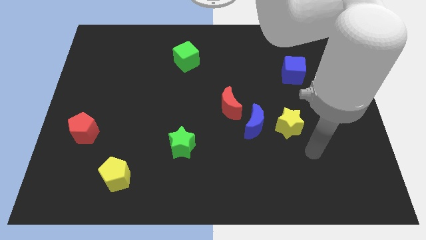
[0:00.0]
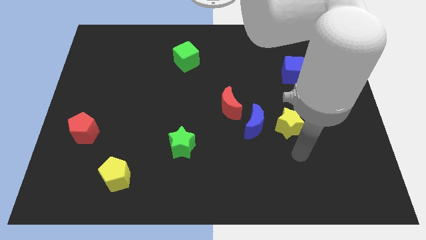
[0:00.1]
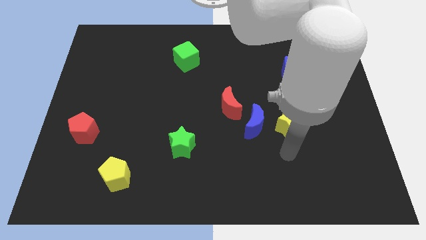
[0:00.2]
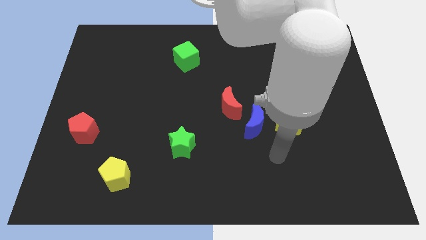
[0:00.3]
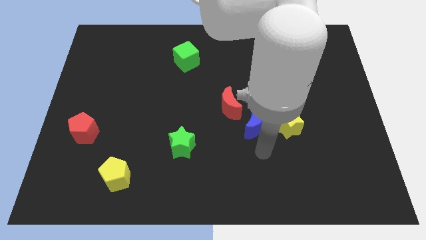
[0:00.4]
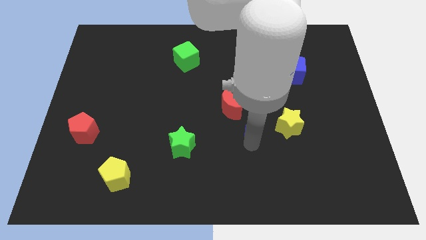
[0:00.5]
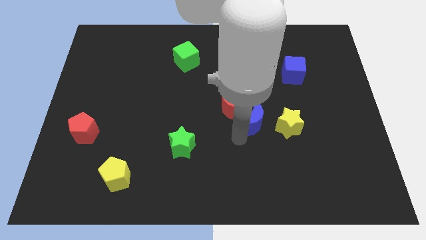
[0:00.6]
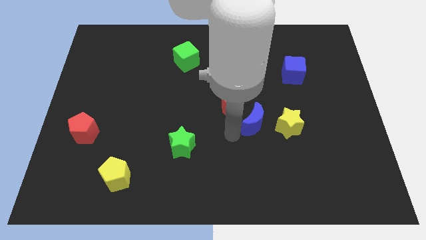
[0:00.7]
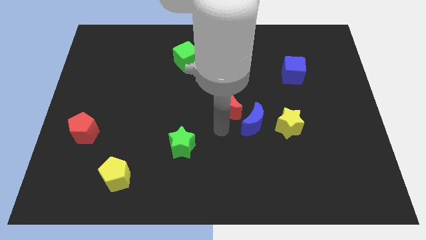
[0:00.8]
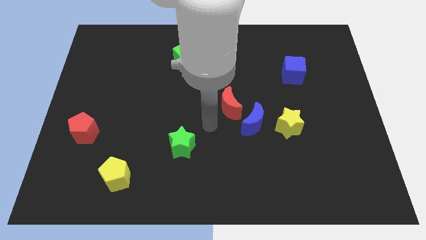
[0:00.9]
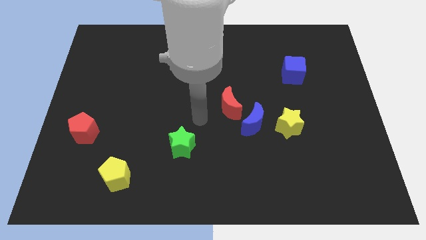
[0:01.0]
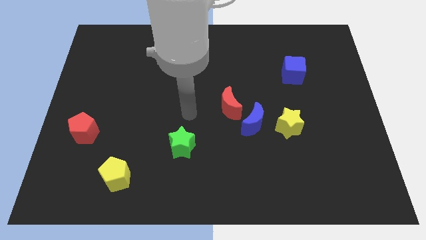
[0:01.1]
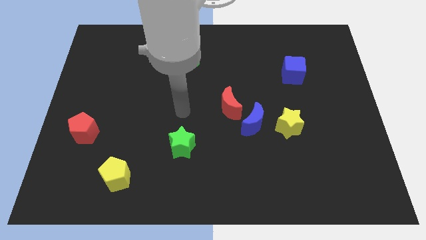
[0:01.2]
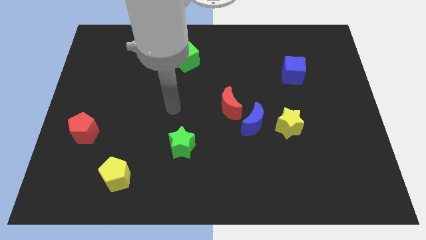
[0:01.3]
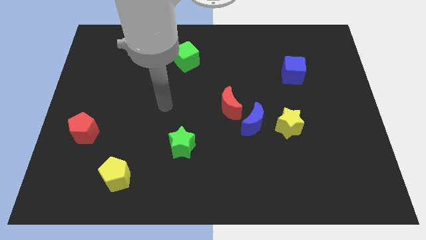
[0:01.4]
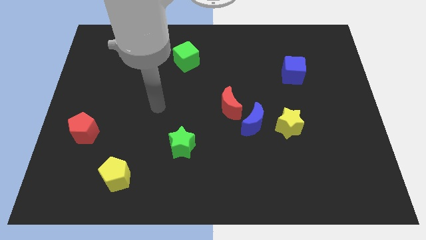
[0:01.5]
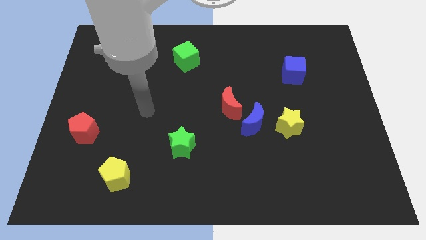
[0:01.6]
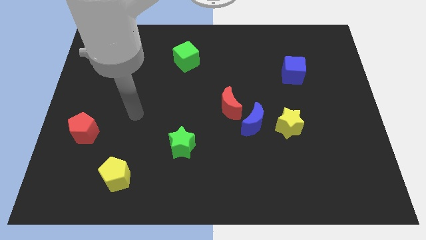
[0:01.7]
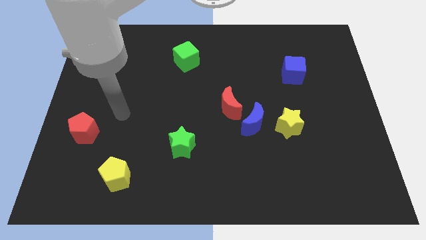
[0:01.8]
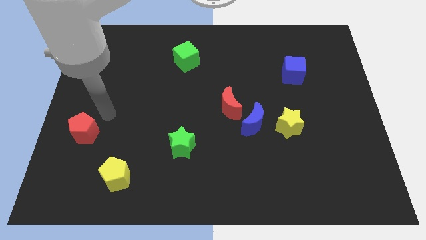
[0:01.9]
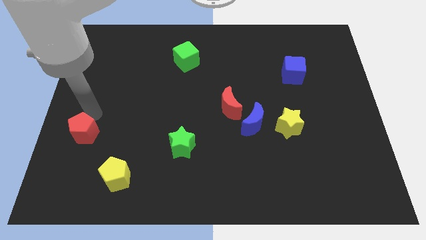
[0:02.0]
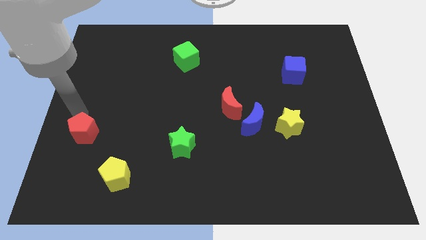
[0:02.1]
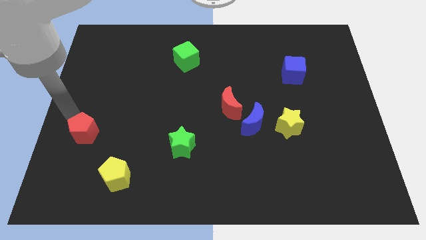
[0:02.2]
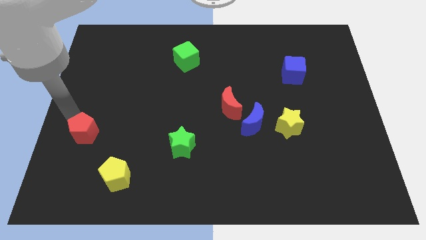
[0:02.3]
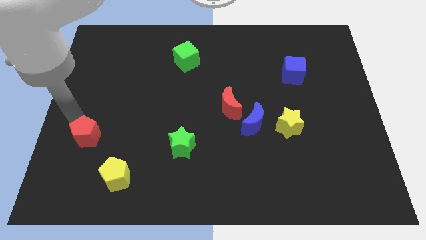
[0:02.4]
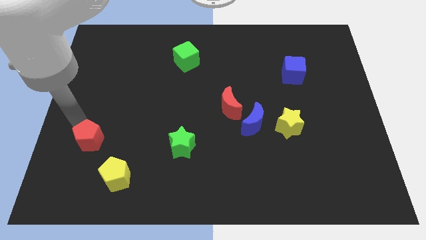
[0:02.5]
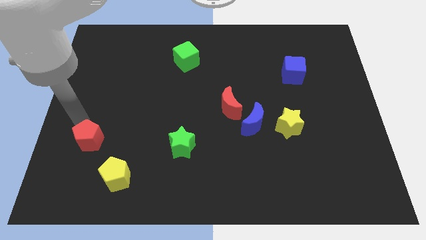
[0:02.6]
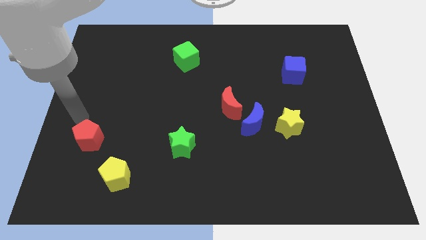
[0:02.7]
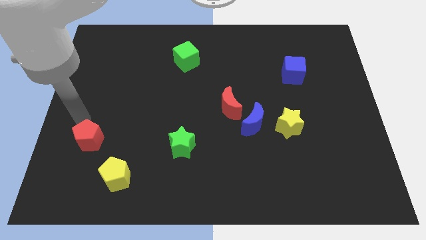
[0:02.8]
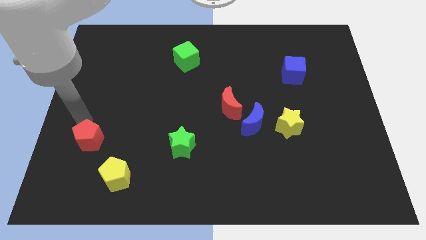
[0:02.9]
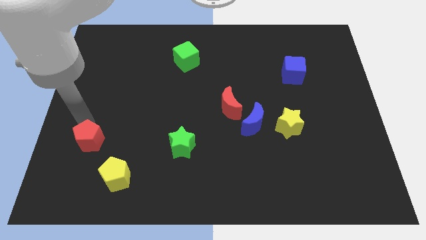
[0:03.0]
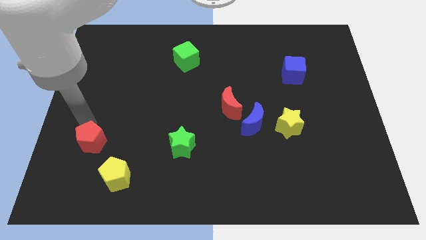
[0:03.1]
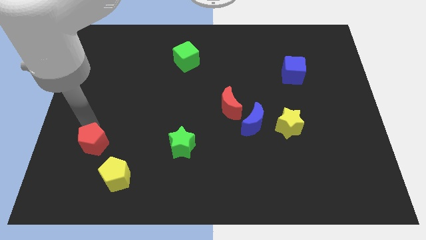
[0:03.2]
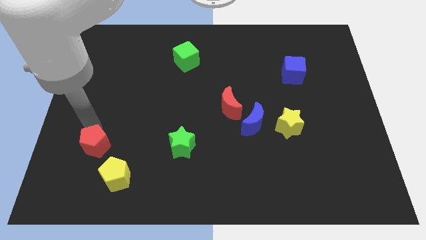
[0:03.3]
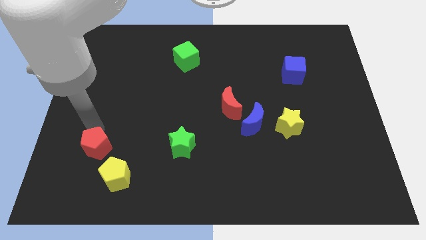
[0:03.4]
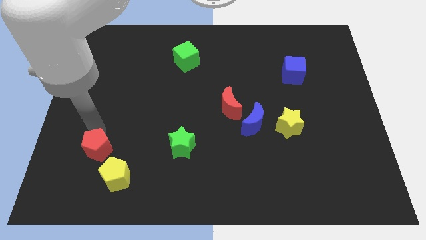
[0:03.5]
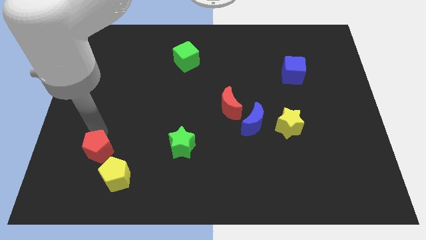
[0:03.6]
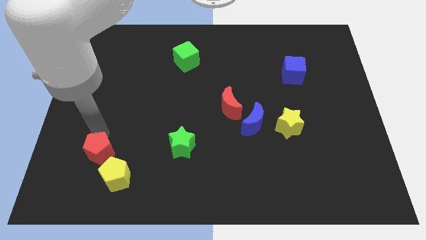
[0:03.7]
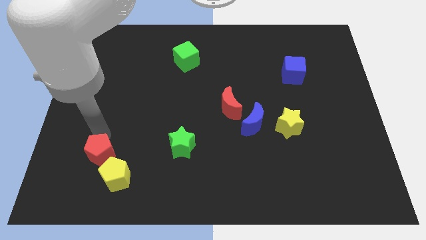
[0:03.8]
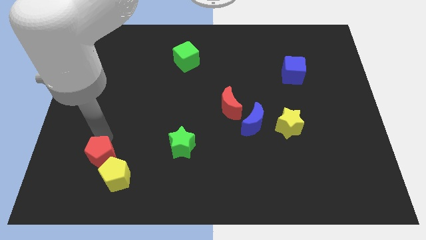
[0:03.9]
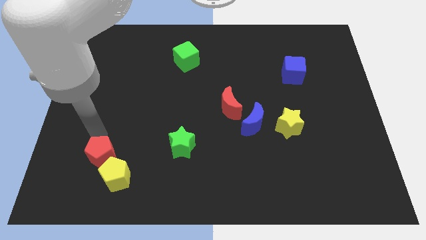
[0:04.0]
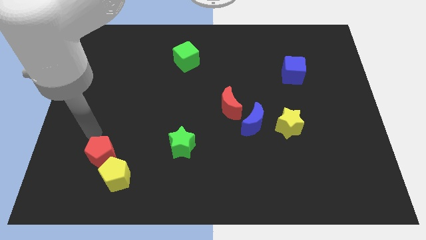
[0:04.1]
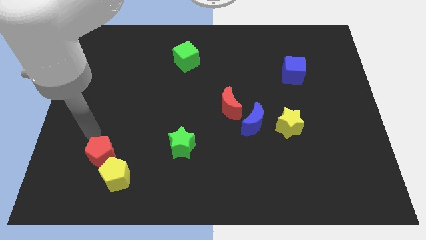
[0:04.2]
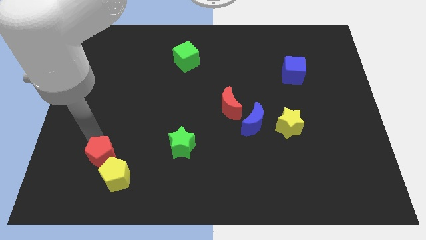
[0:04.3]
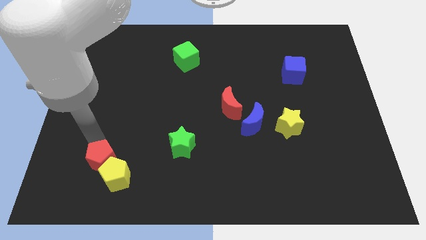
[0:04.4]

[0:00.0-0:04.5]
slide the red pentagon next to the yellow pentagon

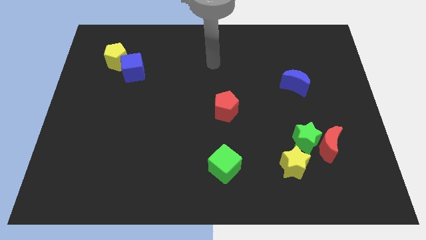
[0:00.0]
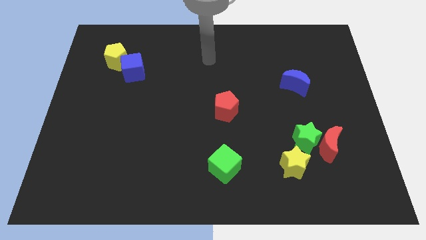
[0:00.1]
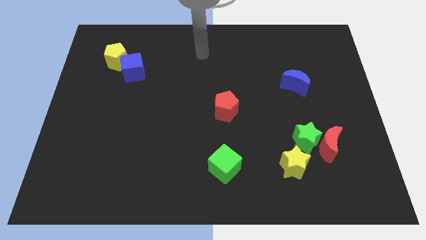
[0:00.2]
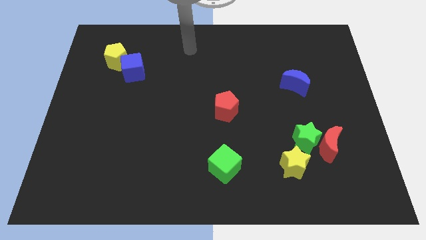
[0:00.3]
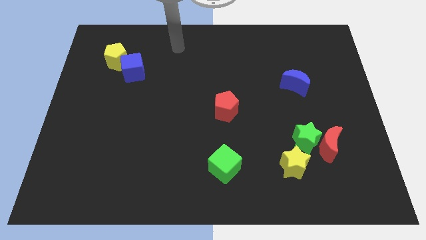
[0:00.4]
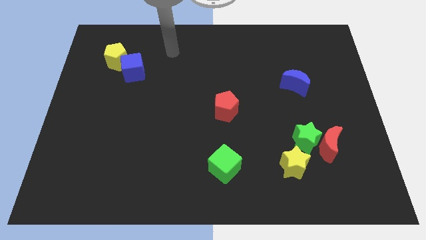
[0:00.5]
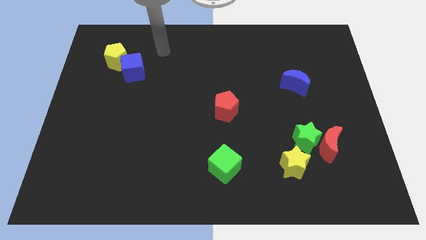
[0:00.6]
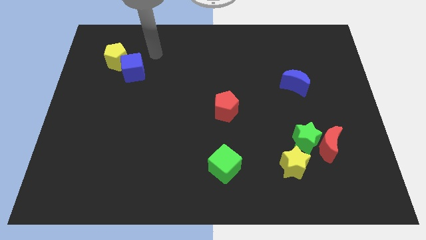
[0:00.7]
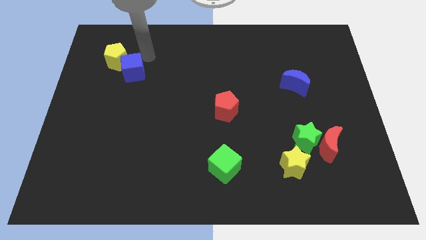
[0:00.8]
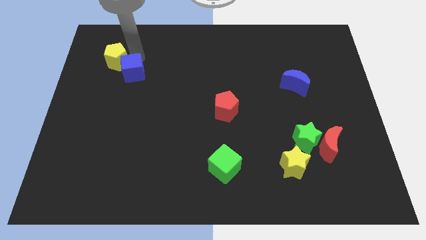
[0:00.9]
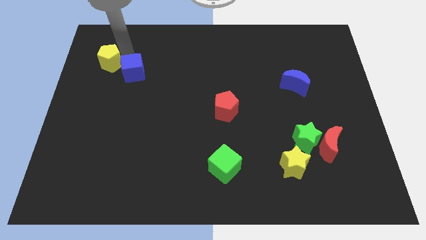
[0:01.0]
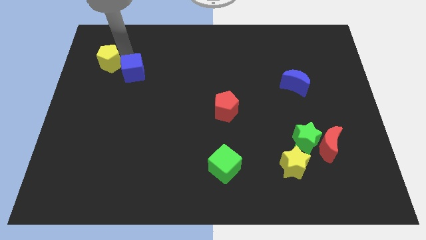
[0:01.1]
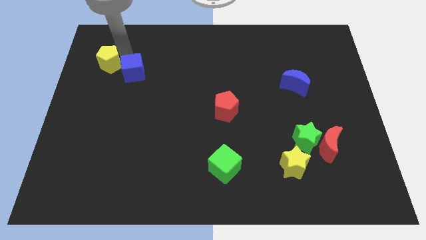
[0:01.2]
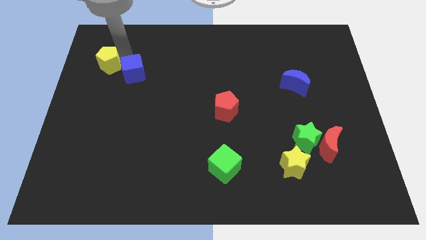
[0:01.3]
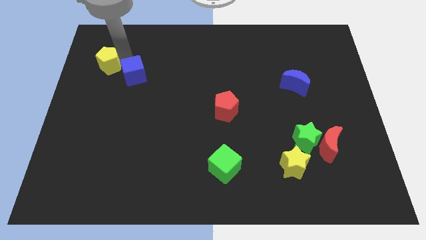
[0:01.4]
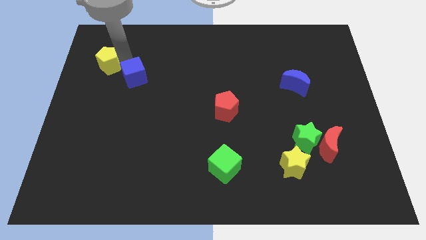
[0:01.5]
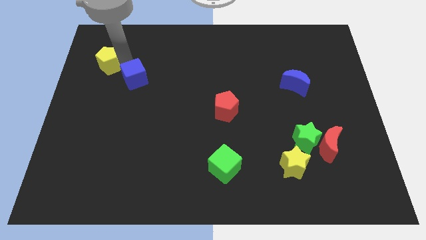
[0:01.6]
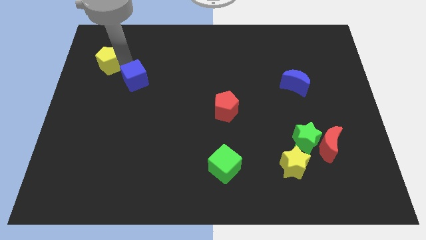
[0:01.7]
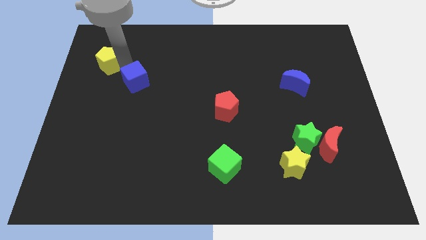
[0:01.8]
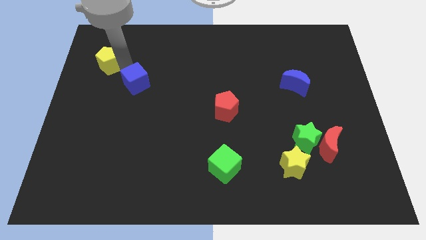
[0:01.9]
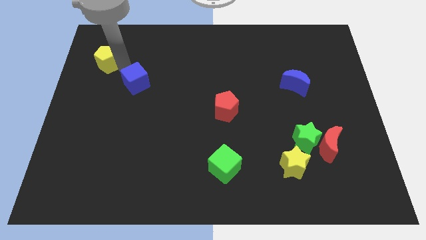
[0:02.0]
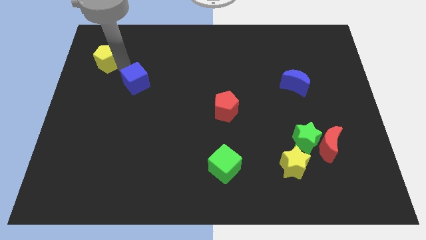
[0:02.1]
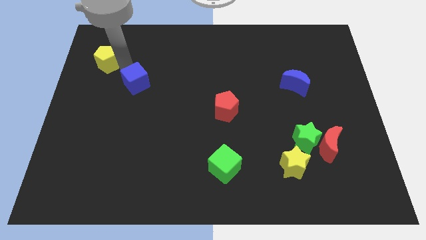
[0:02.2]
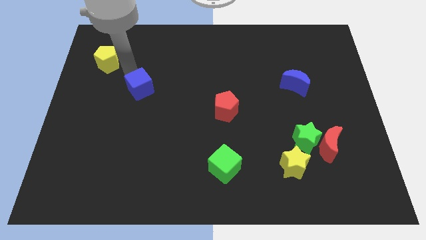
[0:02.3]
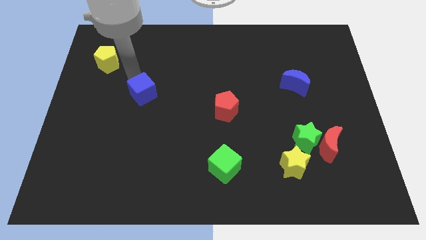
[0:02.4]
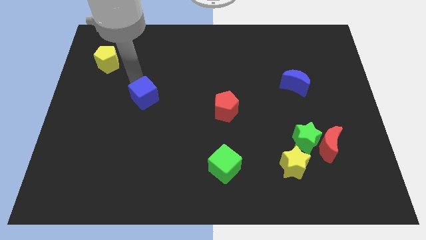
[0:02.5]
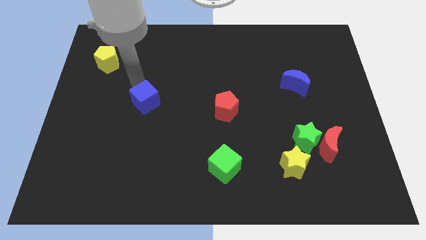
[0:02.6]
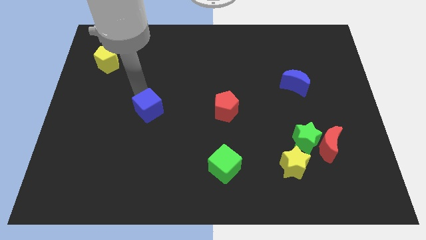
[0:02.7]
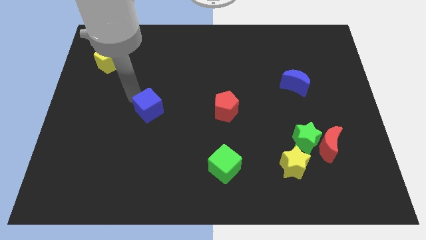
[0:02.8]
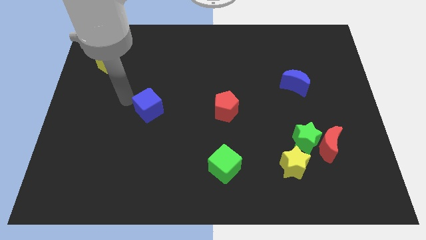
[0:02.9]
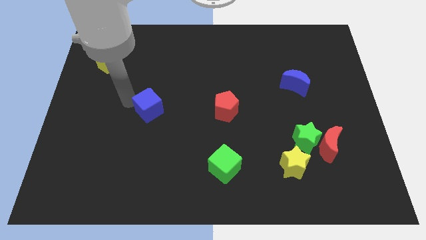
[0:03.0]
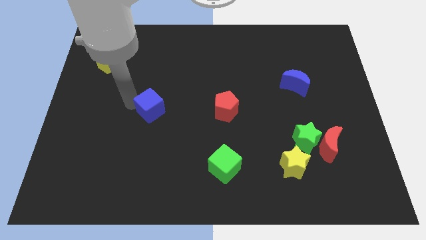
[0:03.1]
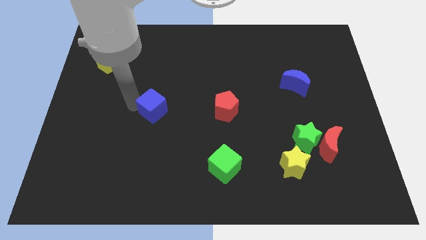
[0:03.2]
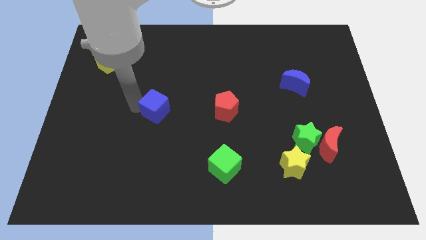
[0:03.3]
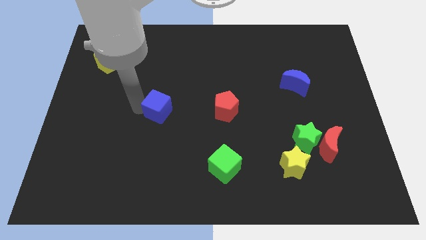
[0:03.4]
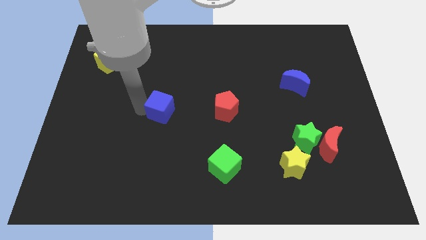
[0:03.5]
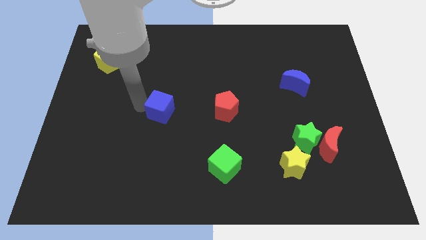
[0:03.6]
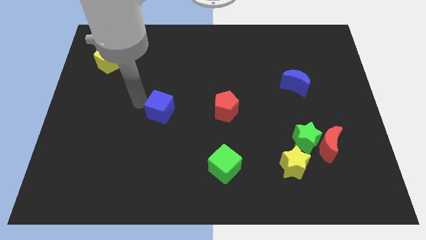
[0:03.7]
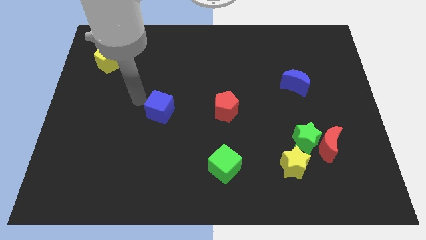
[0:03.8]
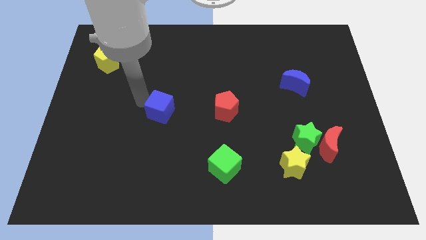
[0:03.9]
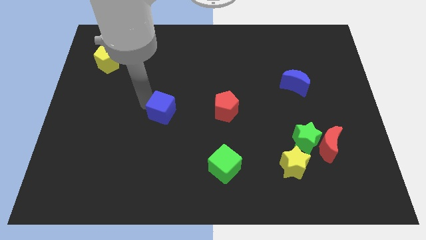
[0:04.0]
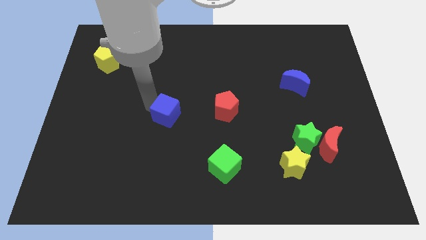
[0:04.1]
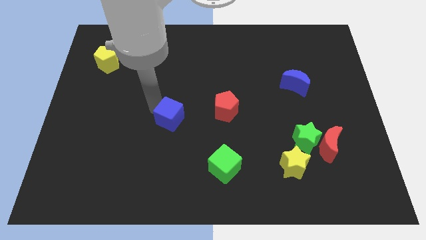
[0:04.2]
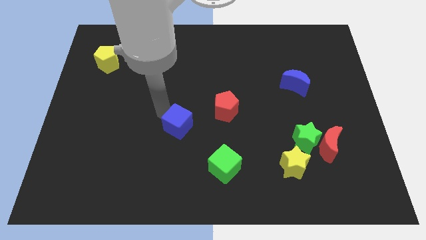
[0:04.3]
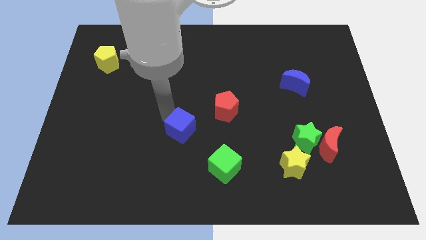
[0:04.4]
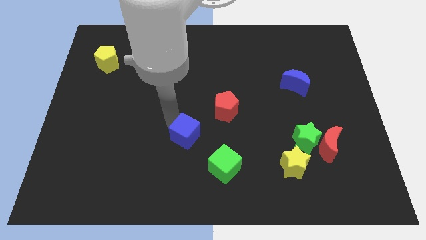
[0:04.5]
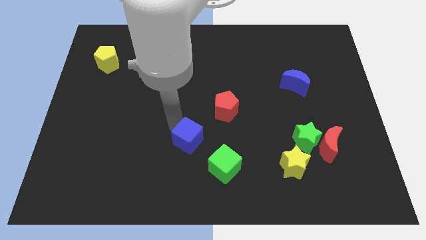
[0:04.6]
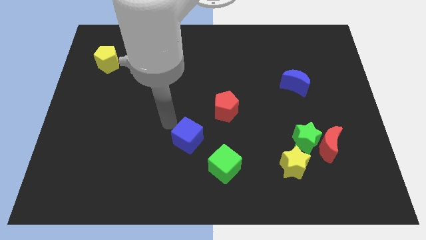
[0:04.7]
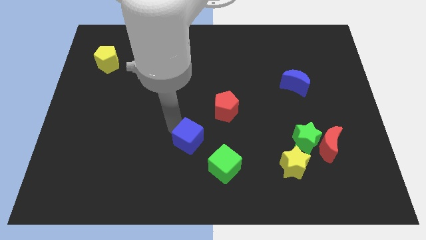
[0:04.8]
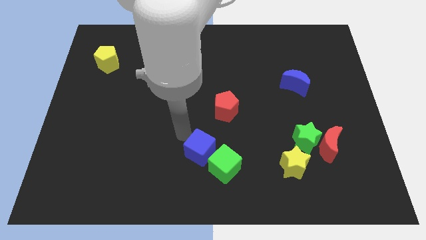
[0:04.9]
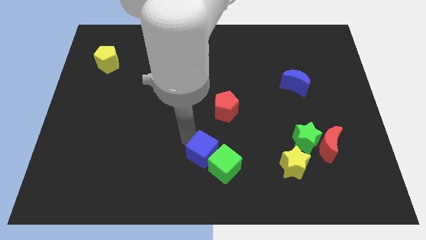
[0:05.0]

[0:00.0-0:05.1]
move the blue cube close to the green cube
